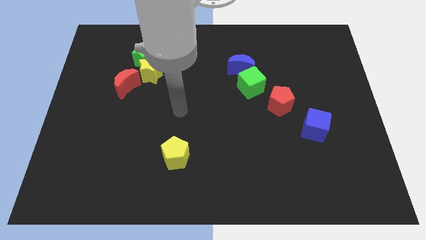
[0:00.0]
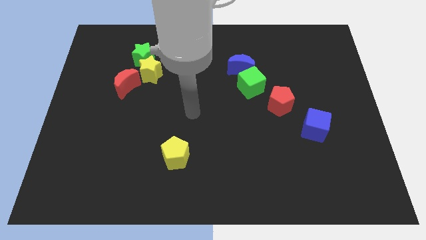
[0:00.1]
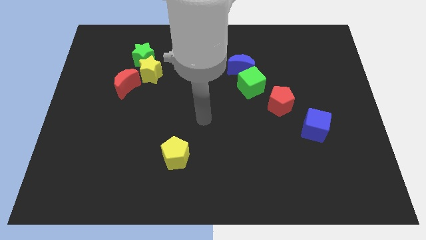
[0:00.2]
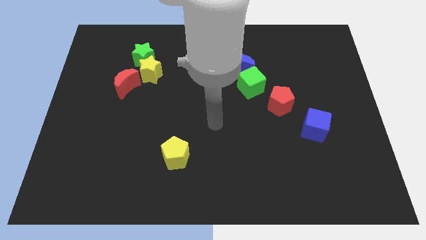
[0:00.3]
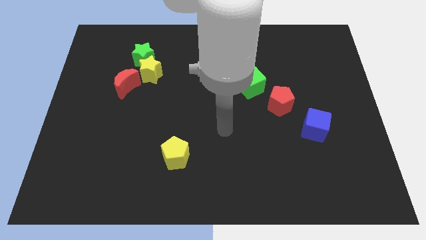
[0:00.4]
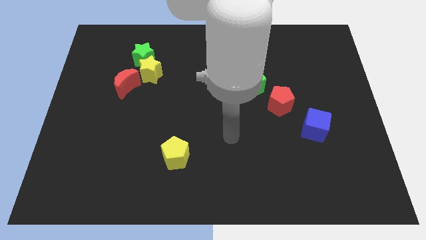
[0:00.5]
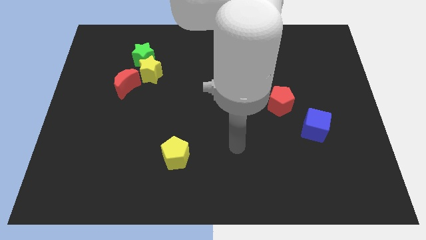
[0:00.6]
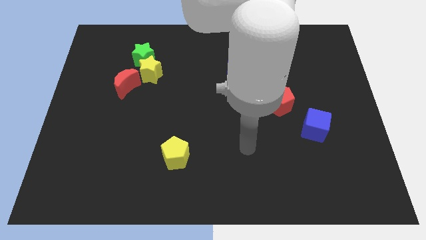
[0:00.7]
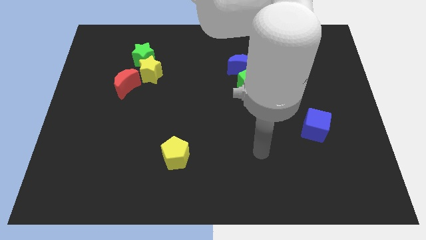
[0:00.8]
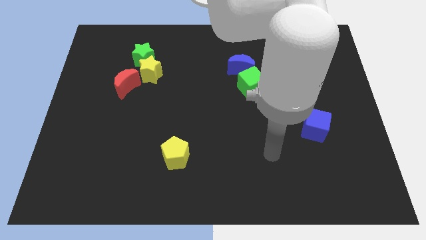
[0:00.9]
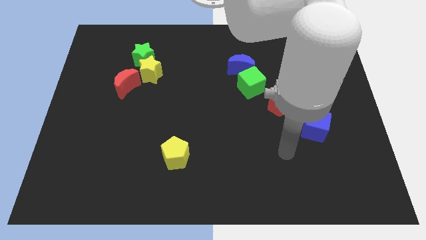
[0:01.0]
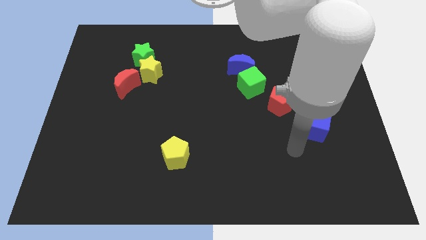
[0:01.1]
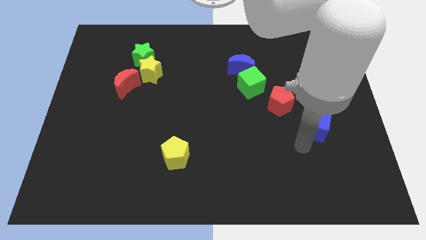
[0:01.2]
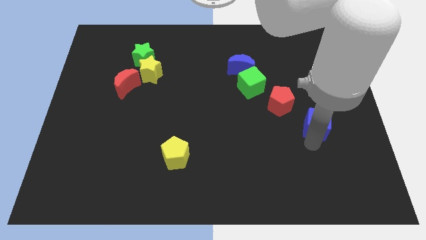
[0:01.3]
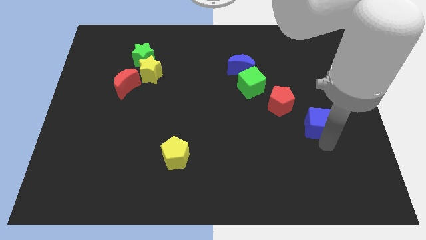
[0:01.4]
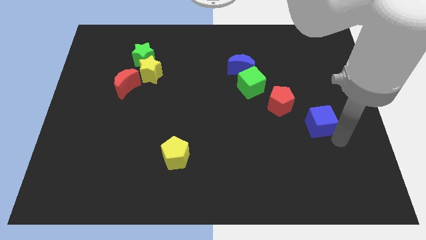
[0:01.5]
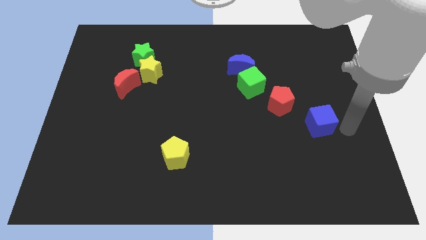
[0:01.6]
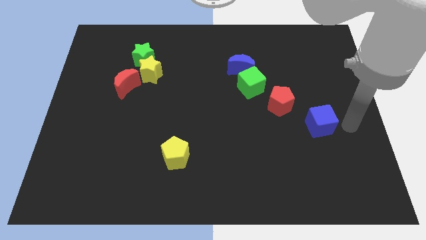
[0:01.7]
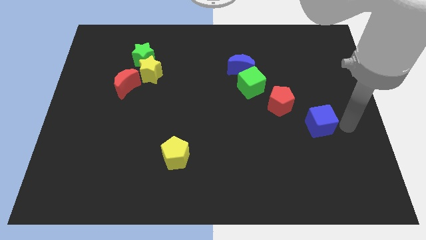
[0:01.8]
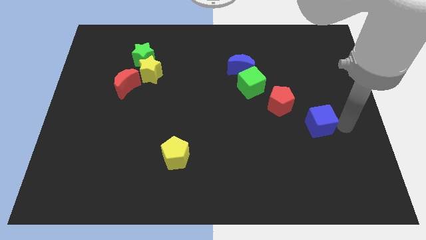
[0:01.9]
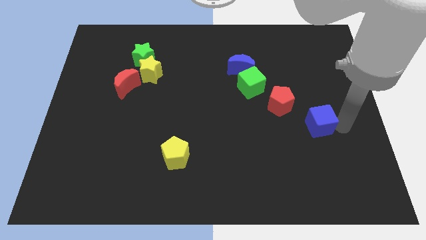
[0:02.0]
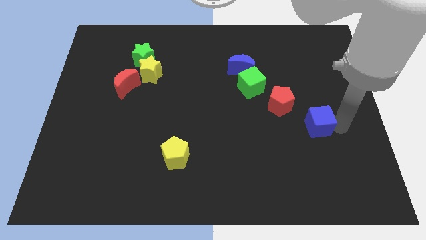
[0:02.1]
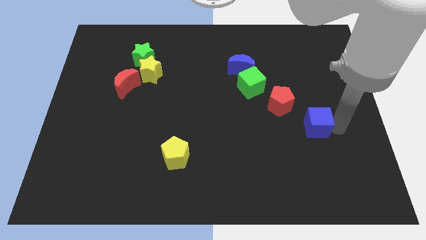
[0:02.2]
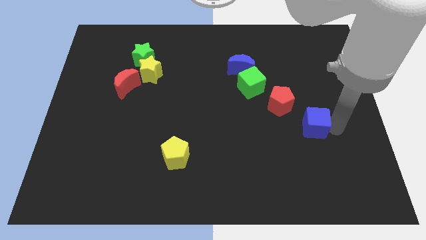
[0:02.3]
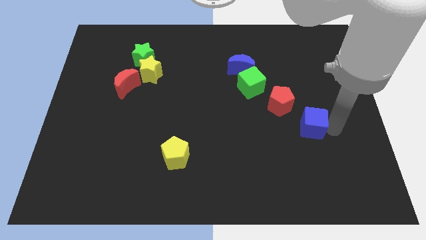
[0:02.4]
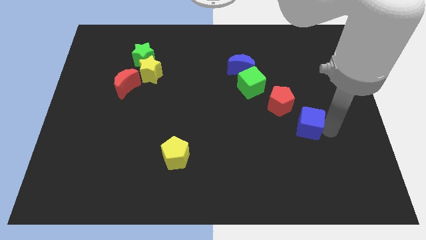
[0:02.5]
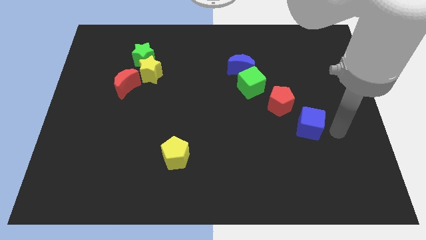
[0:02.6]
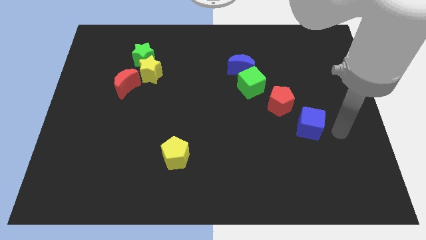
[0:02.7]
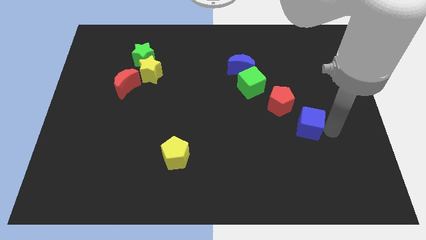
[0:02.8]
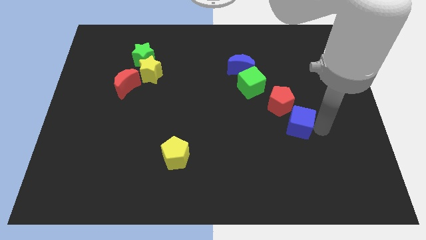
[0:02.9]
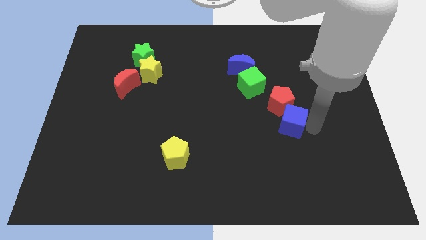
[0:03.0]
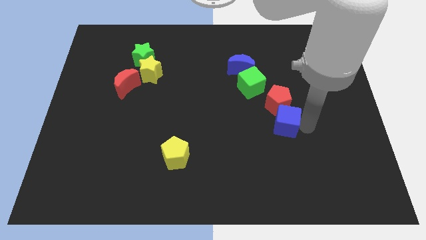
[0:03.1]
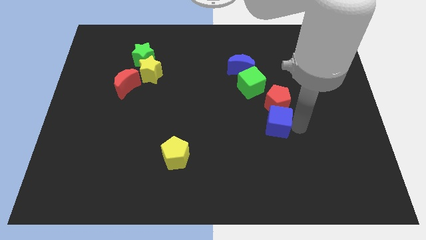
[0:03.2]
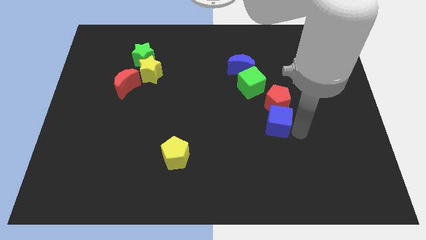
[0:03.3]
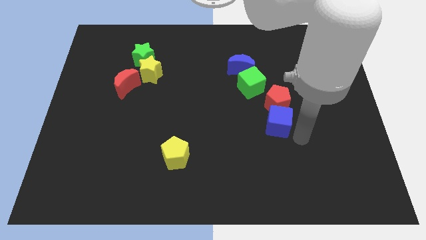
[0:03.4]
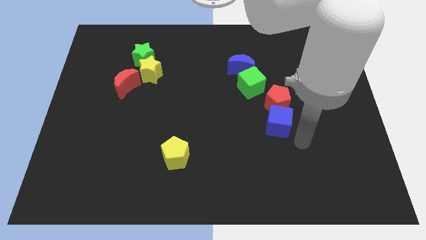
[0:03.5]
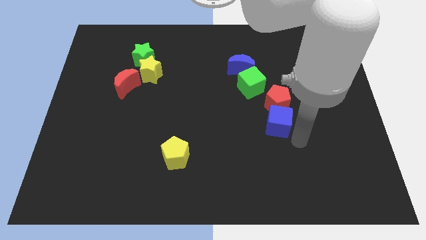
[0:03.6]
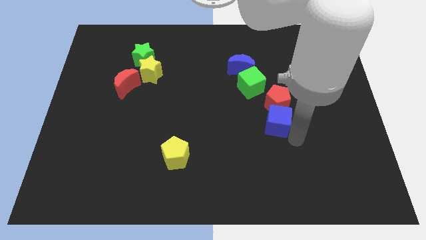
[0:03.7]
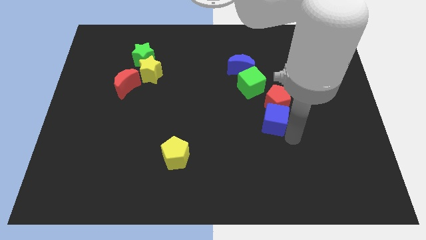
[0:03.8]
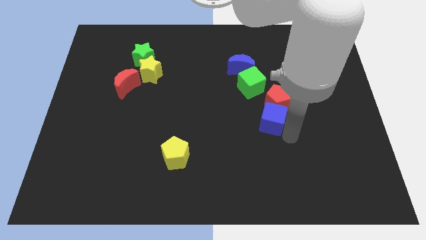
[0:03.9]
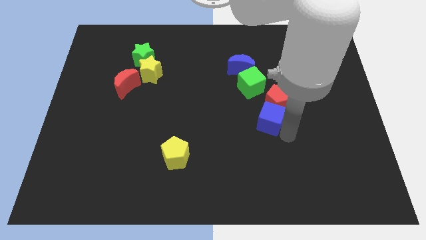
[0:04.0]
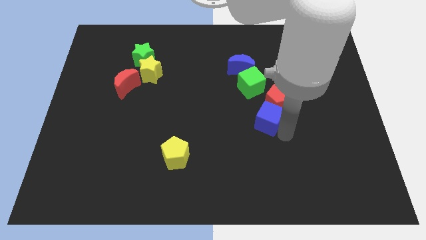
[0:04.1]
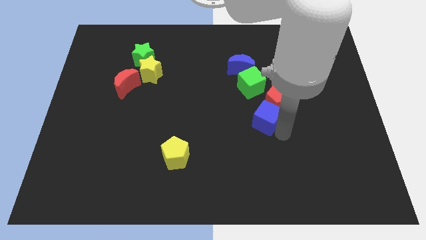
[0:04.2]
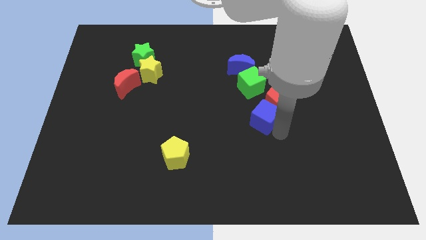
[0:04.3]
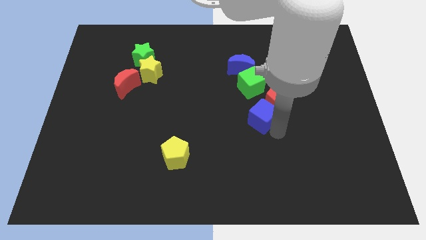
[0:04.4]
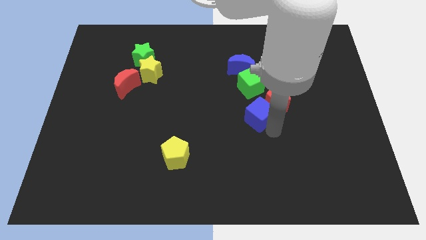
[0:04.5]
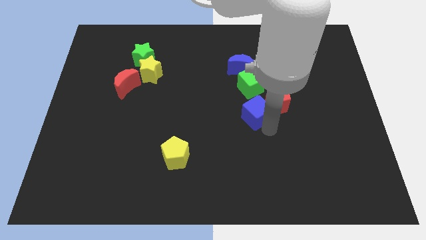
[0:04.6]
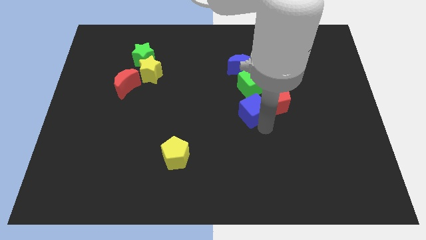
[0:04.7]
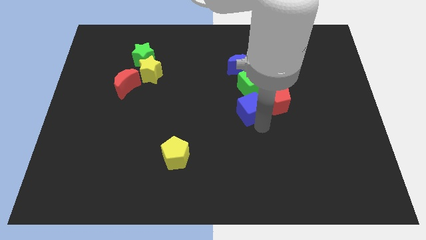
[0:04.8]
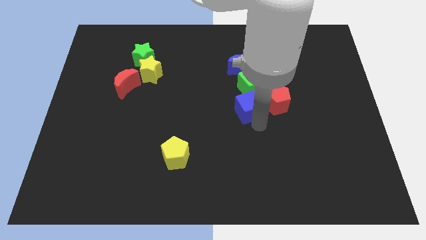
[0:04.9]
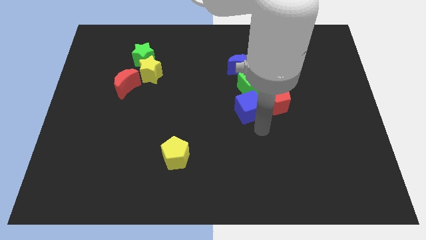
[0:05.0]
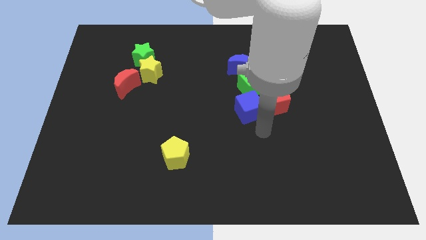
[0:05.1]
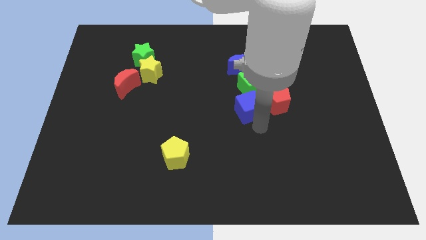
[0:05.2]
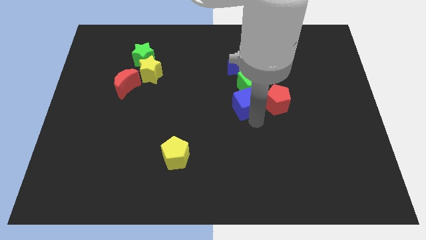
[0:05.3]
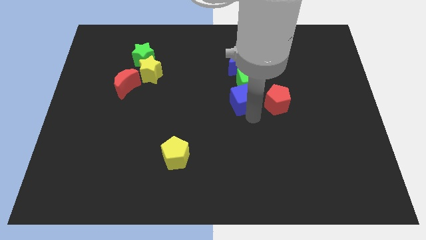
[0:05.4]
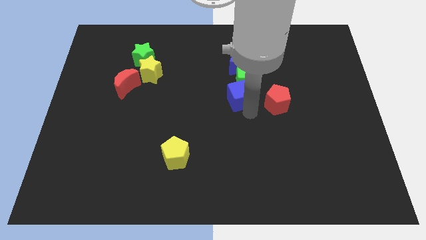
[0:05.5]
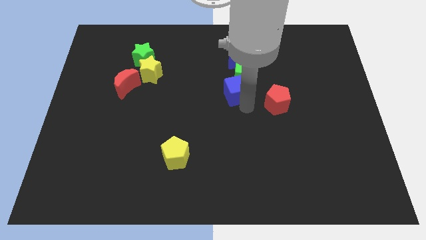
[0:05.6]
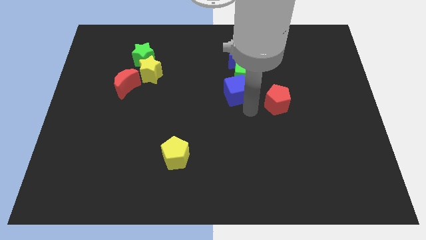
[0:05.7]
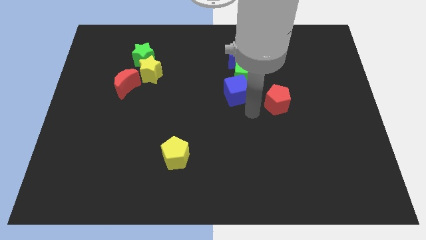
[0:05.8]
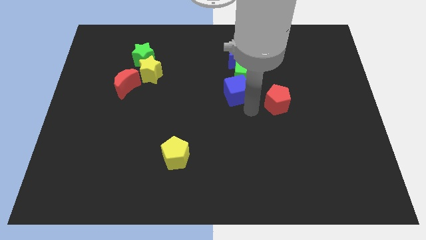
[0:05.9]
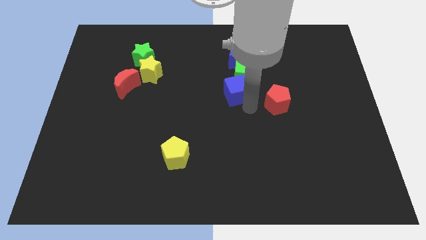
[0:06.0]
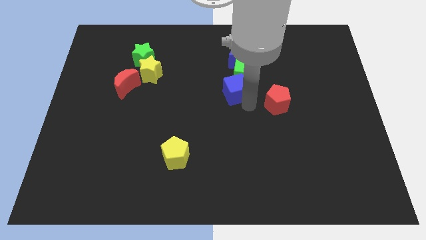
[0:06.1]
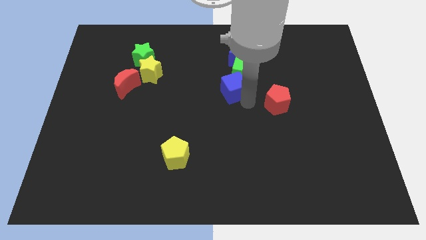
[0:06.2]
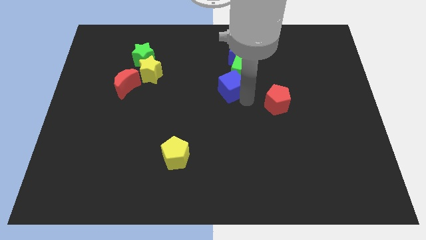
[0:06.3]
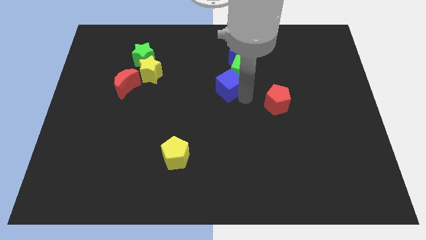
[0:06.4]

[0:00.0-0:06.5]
slide the blue cube diagonally down and to the left of the blue moon
